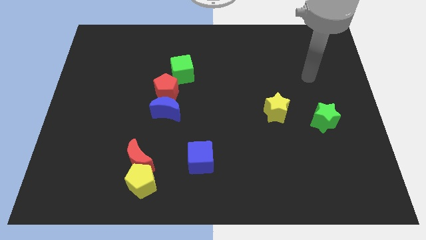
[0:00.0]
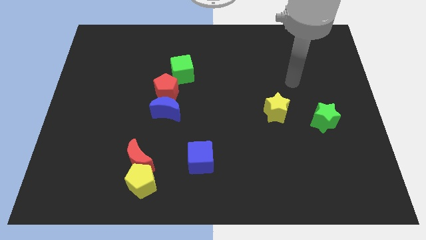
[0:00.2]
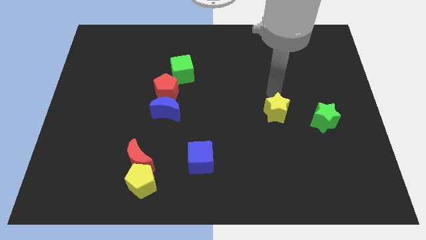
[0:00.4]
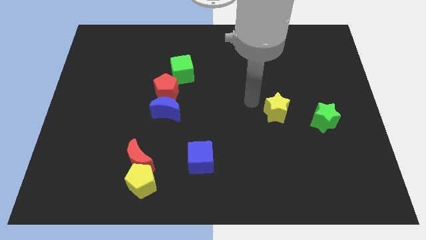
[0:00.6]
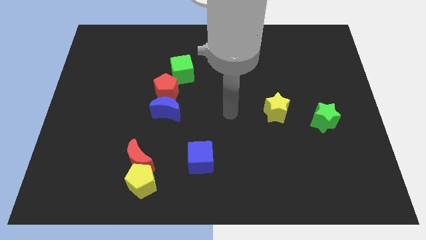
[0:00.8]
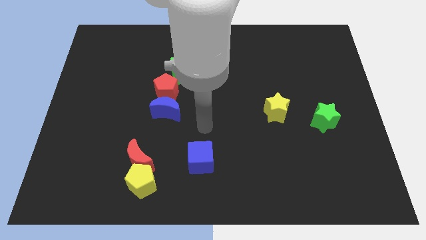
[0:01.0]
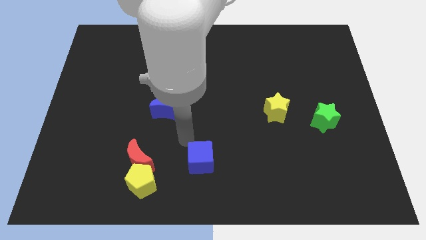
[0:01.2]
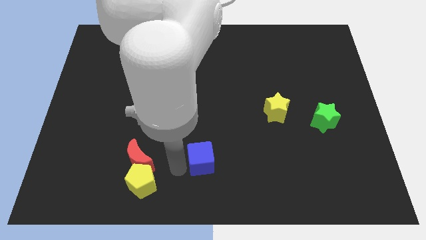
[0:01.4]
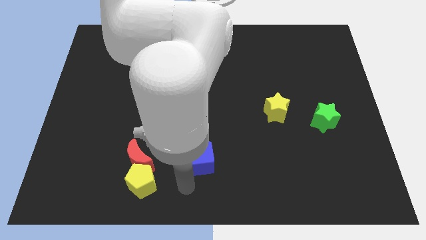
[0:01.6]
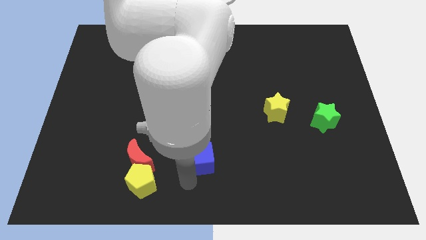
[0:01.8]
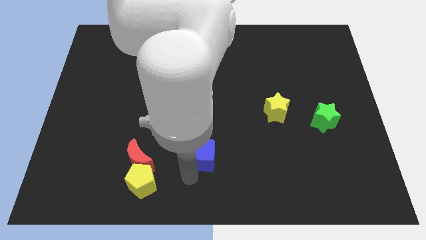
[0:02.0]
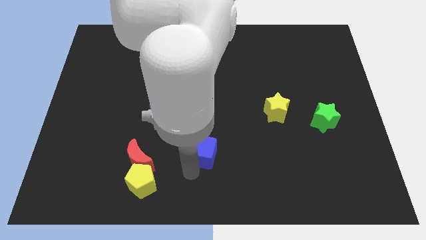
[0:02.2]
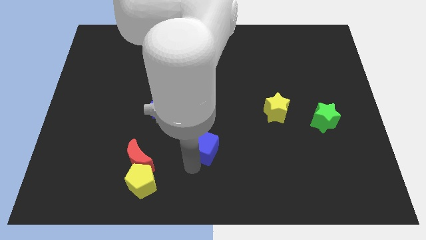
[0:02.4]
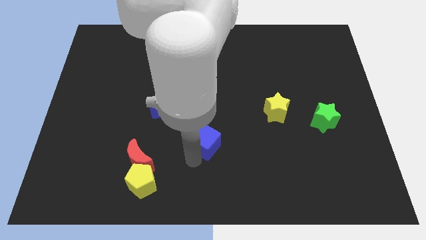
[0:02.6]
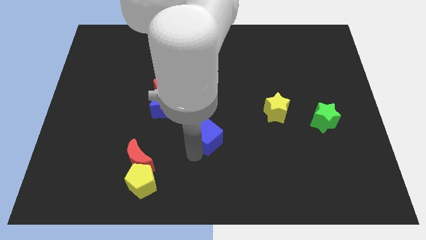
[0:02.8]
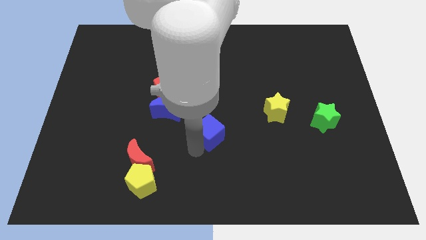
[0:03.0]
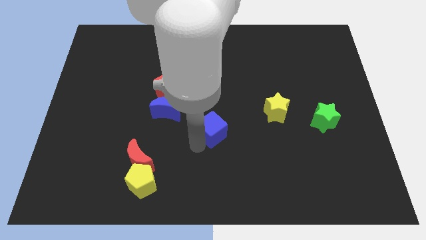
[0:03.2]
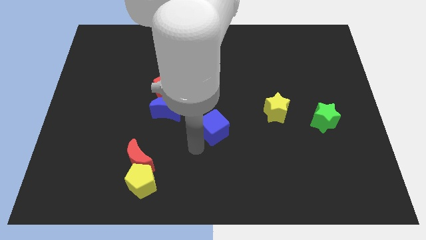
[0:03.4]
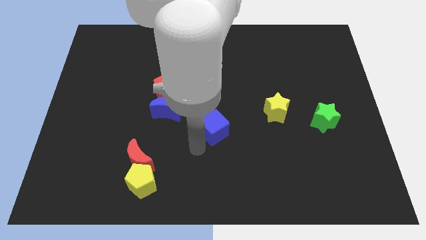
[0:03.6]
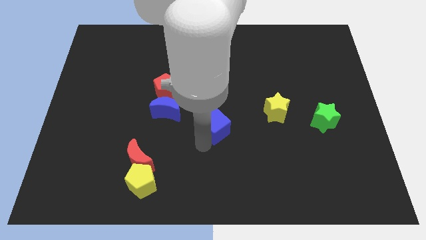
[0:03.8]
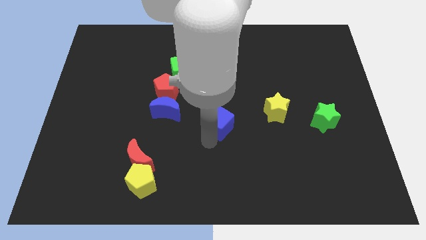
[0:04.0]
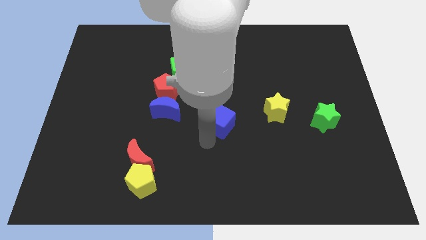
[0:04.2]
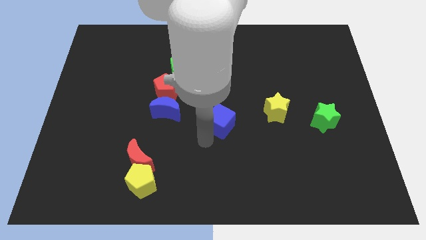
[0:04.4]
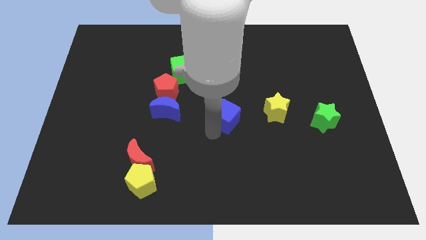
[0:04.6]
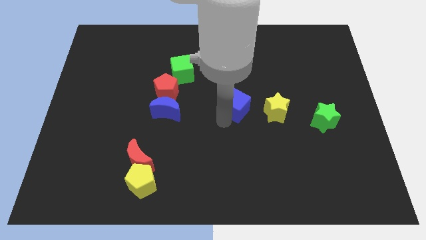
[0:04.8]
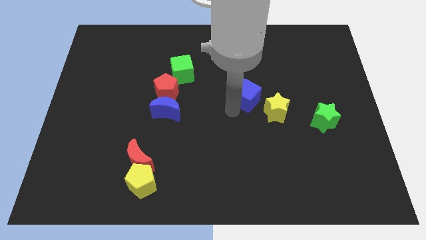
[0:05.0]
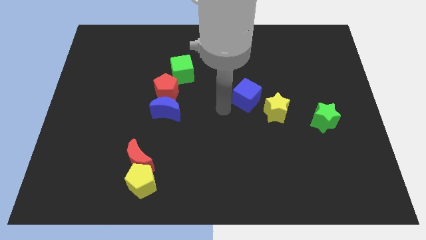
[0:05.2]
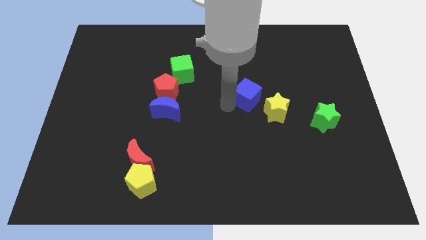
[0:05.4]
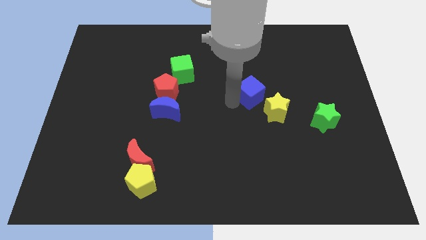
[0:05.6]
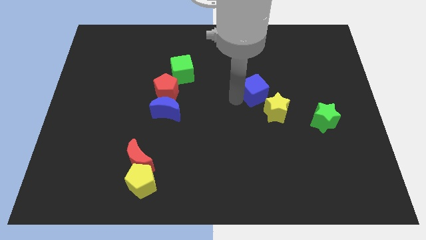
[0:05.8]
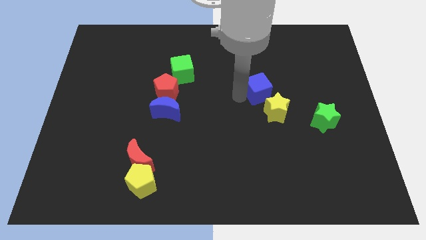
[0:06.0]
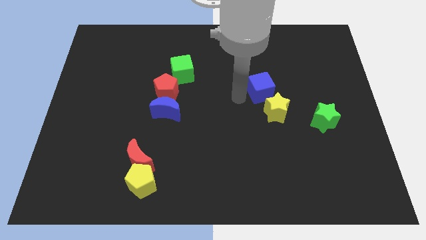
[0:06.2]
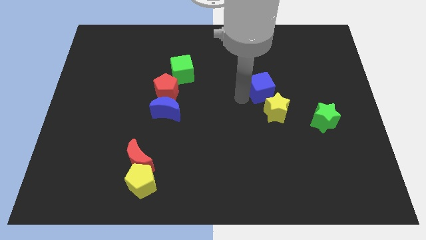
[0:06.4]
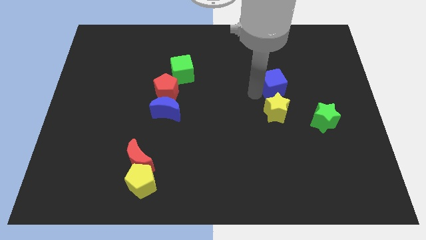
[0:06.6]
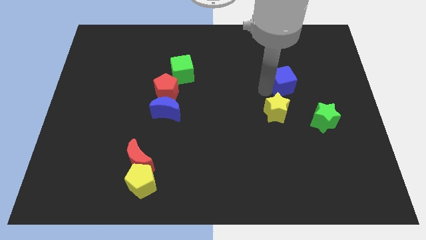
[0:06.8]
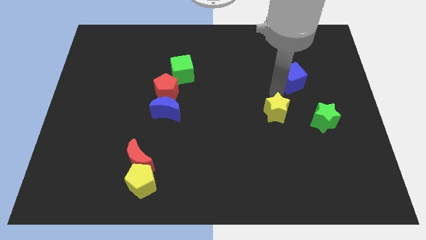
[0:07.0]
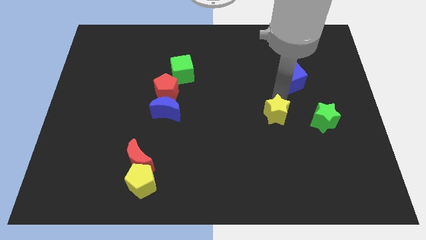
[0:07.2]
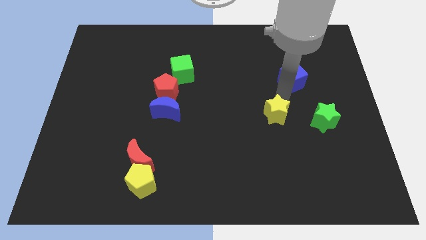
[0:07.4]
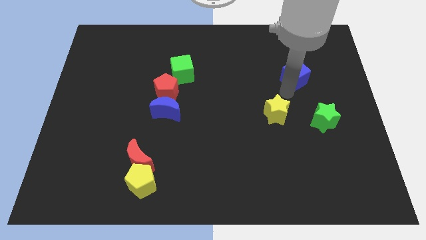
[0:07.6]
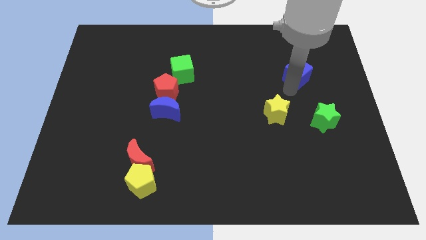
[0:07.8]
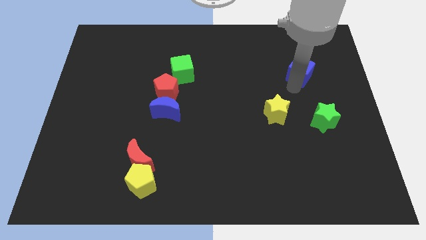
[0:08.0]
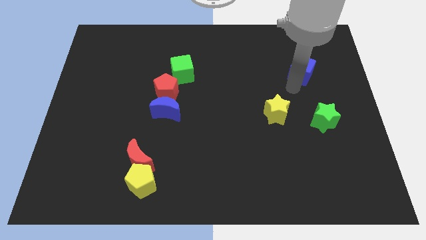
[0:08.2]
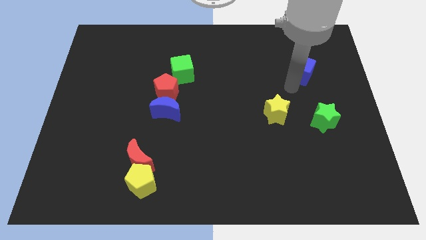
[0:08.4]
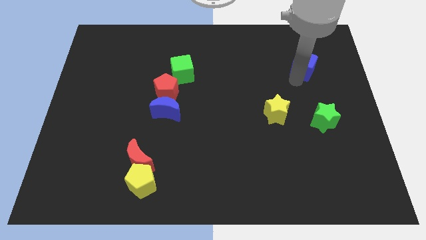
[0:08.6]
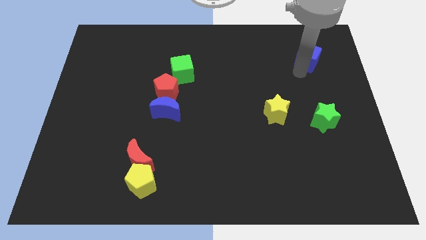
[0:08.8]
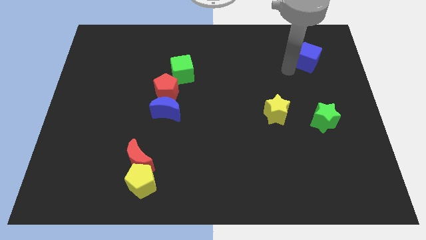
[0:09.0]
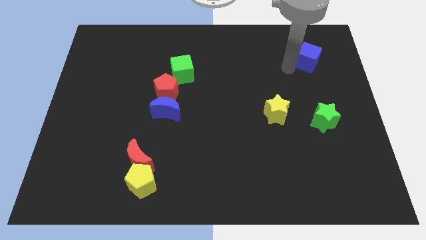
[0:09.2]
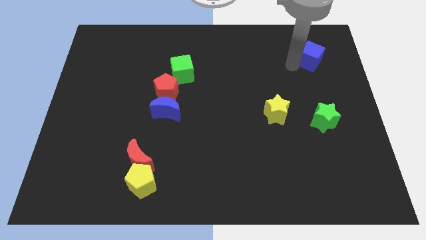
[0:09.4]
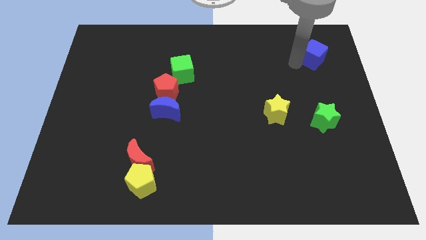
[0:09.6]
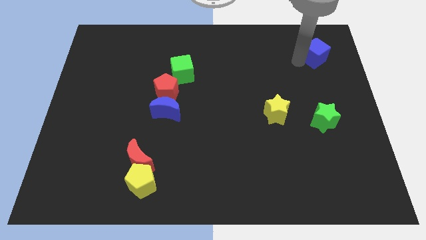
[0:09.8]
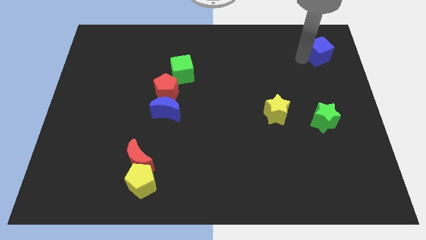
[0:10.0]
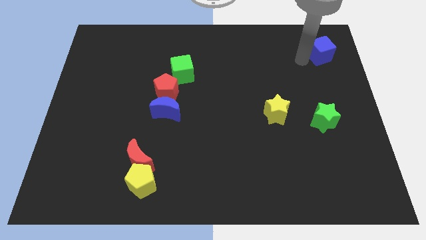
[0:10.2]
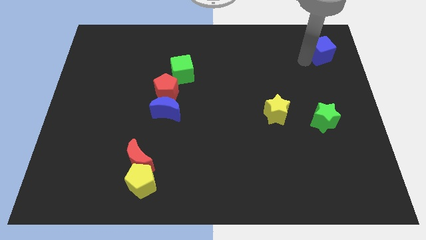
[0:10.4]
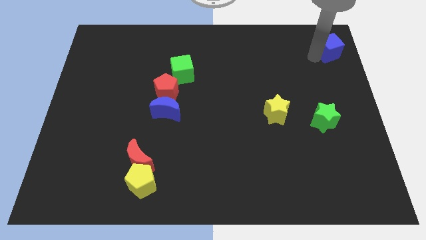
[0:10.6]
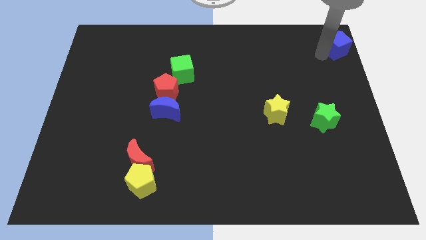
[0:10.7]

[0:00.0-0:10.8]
slide the blue cube to the top right corner

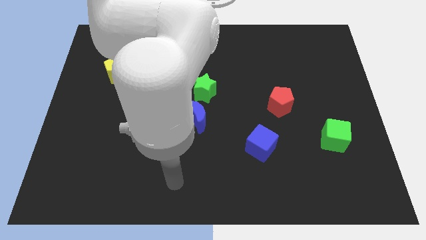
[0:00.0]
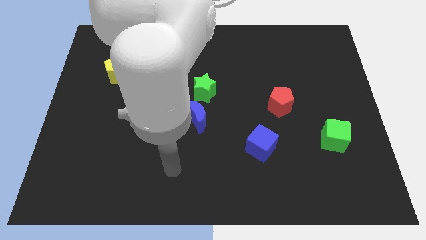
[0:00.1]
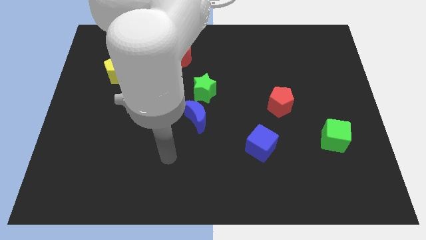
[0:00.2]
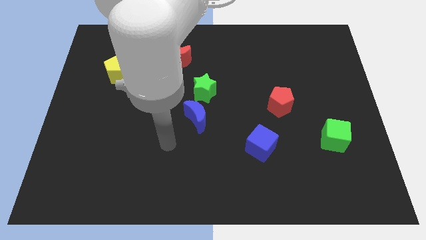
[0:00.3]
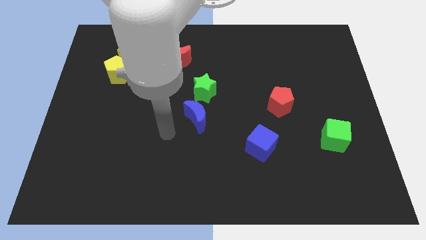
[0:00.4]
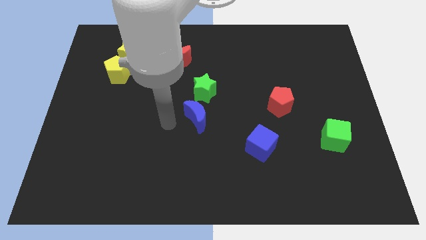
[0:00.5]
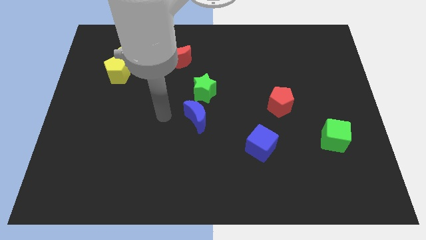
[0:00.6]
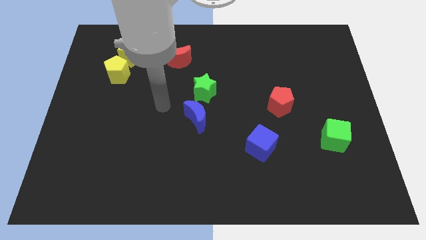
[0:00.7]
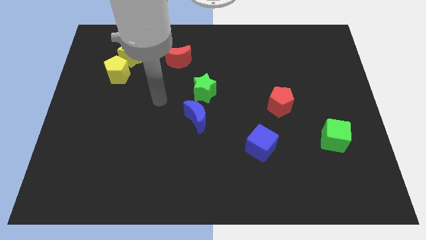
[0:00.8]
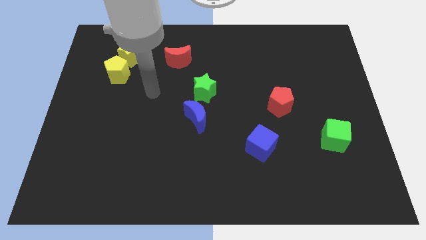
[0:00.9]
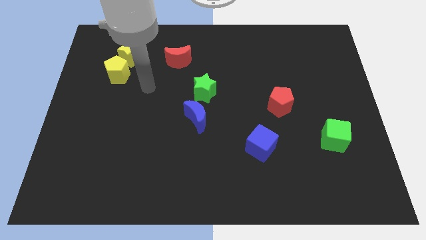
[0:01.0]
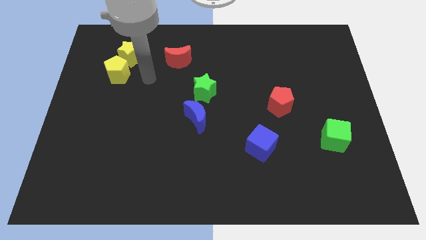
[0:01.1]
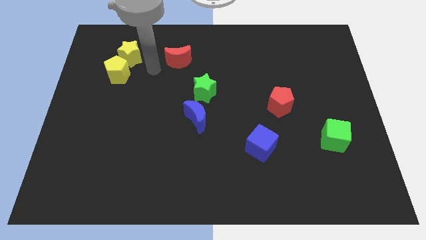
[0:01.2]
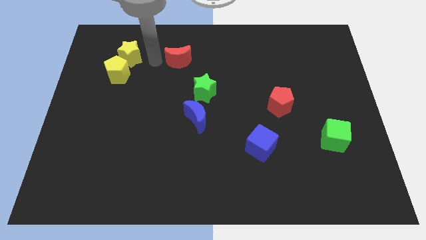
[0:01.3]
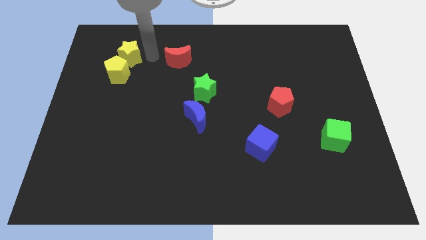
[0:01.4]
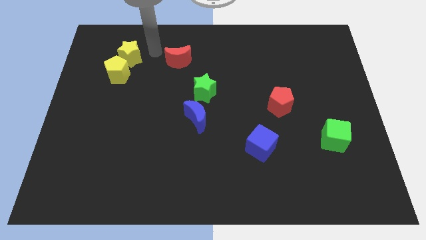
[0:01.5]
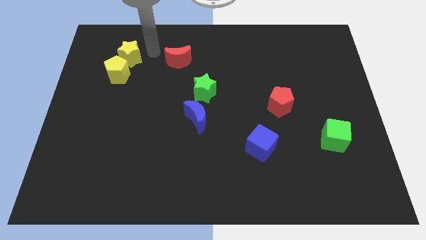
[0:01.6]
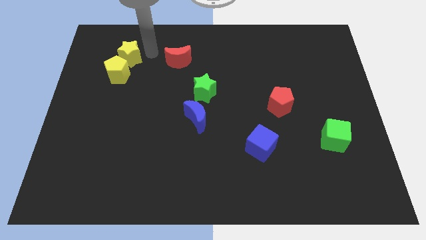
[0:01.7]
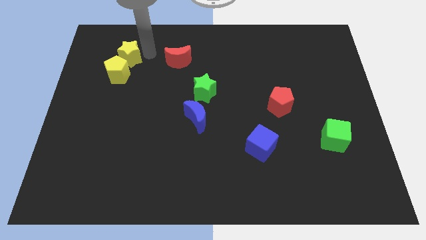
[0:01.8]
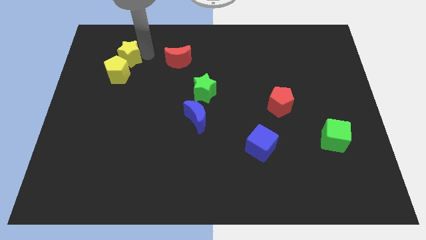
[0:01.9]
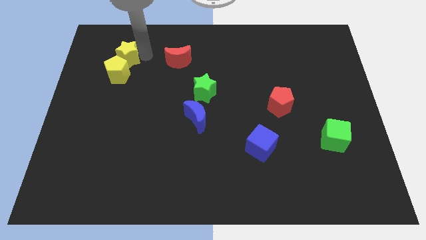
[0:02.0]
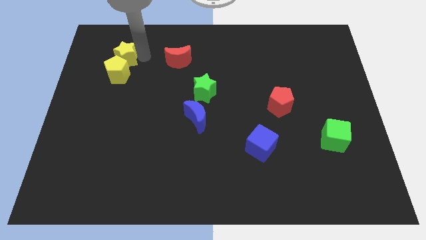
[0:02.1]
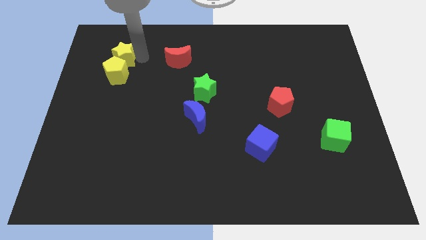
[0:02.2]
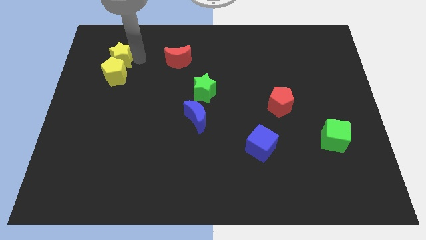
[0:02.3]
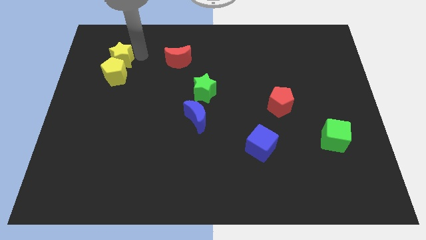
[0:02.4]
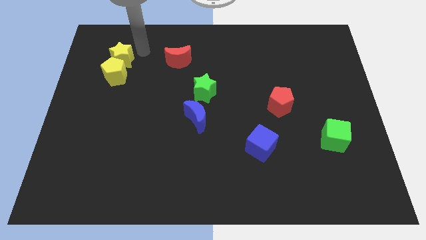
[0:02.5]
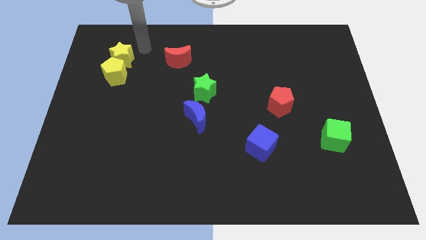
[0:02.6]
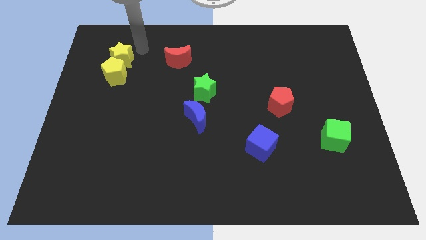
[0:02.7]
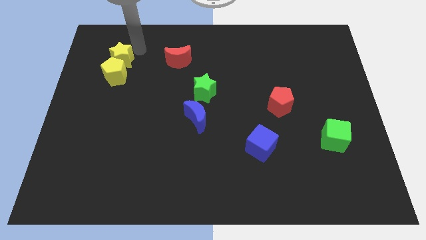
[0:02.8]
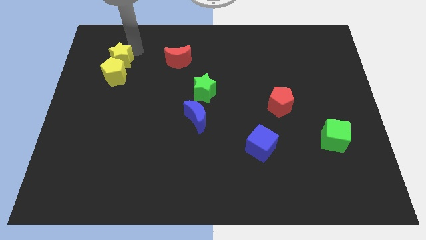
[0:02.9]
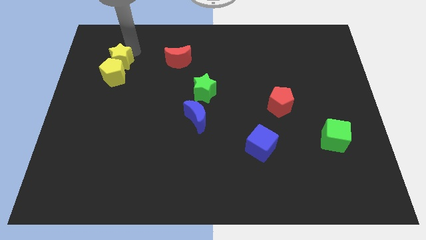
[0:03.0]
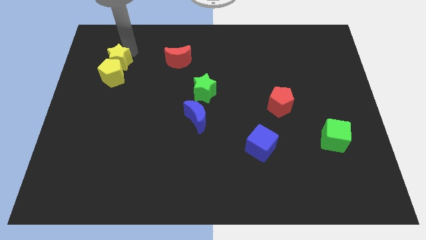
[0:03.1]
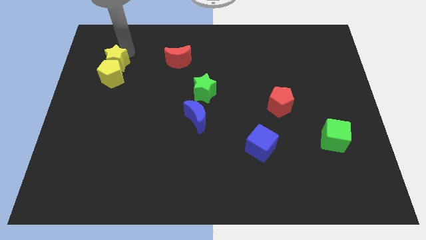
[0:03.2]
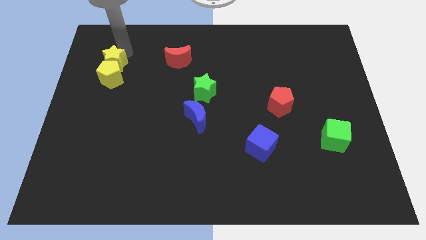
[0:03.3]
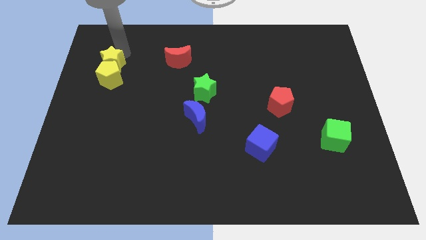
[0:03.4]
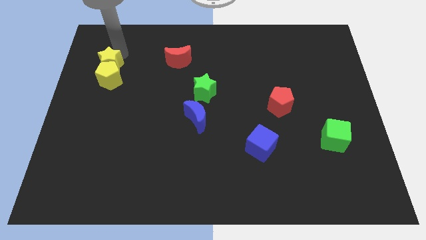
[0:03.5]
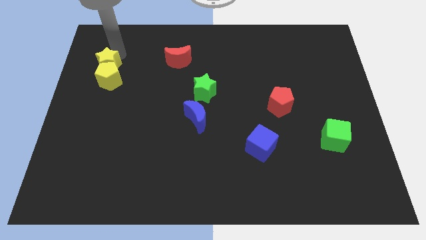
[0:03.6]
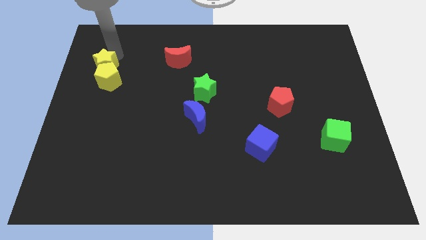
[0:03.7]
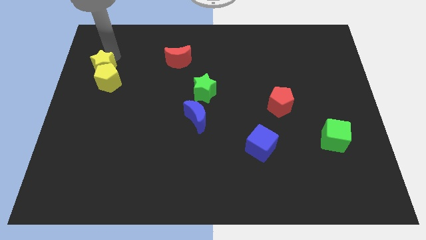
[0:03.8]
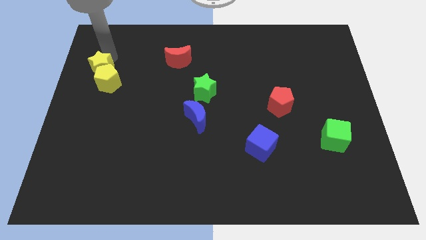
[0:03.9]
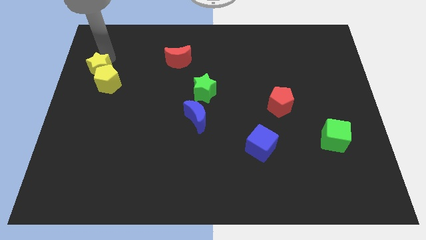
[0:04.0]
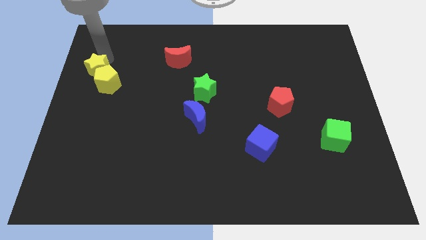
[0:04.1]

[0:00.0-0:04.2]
move the yellow star to the left side
